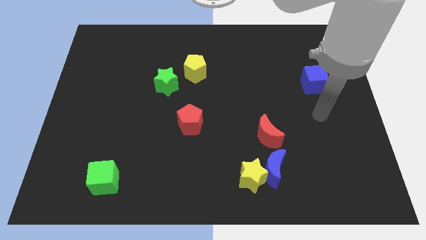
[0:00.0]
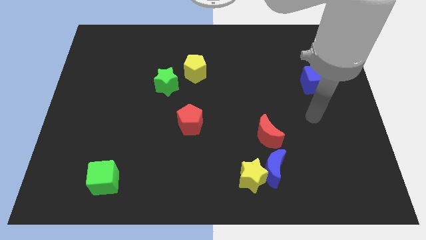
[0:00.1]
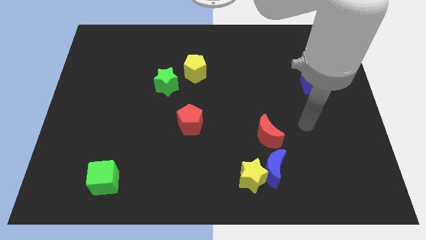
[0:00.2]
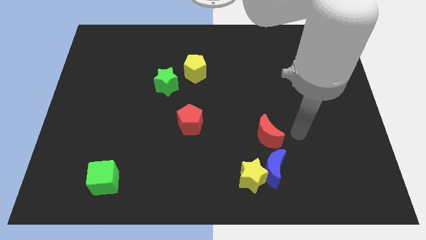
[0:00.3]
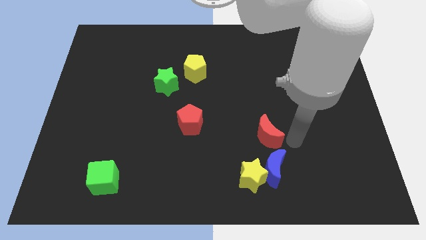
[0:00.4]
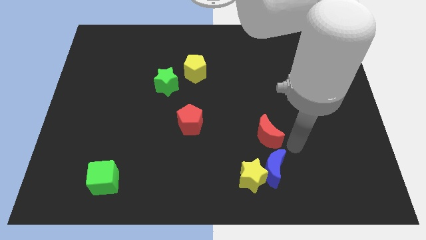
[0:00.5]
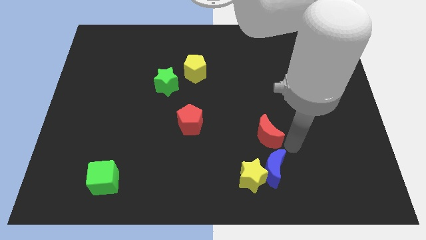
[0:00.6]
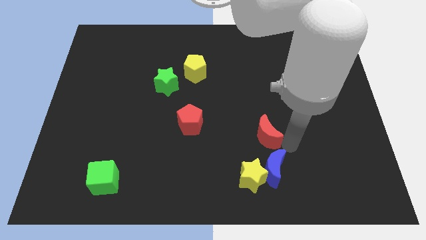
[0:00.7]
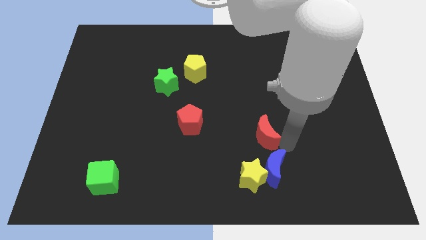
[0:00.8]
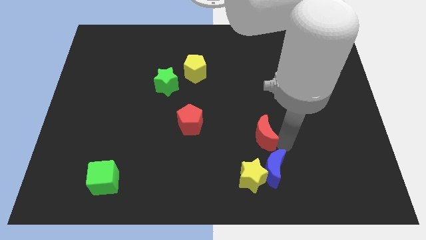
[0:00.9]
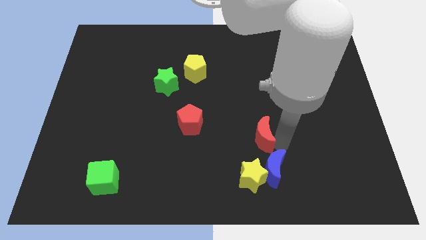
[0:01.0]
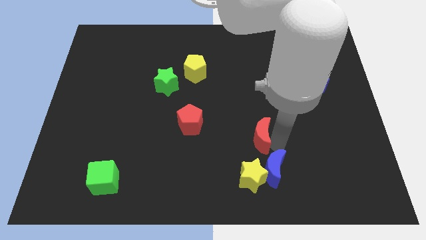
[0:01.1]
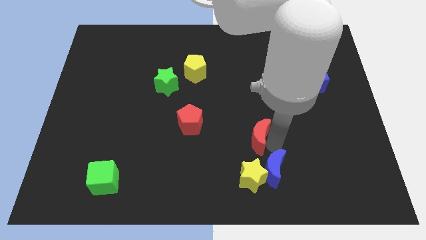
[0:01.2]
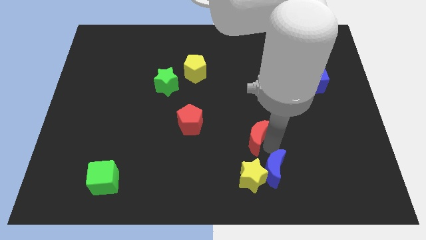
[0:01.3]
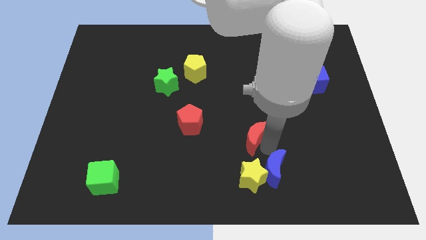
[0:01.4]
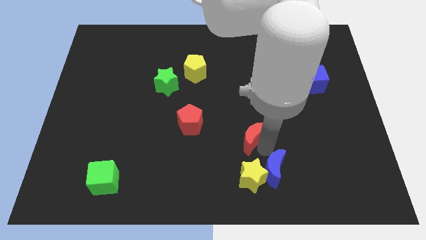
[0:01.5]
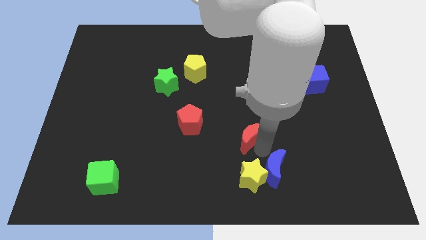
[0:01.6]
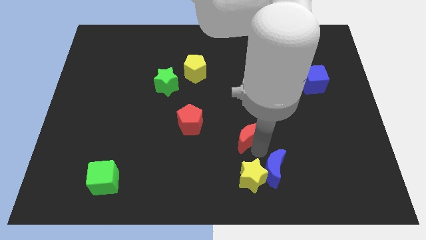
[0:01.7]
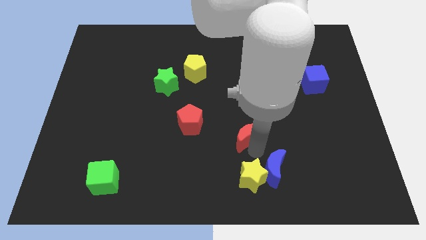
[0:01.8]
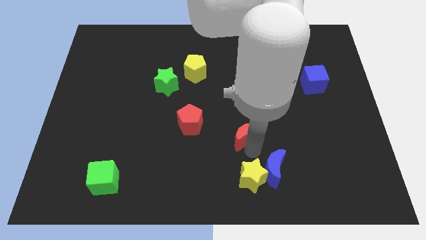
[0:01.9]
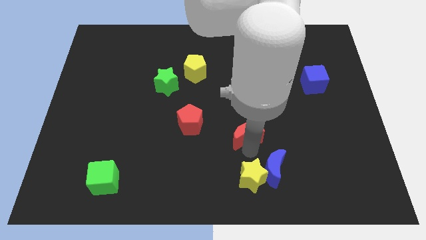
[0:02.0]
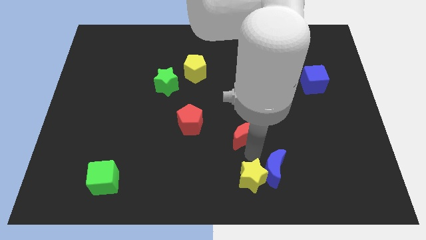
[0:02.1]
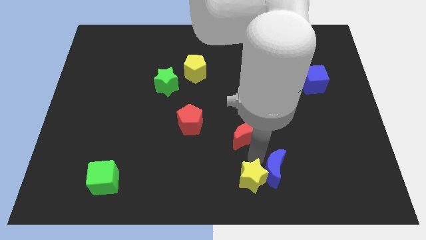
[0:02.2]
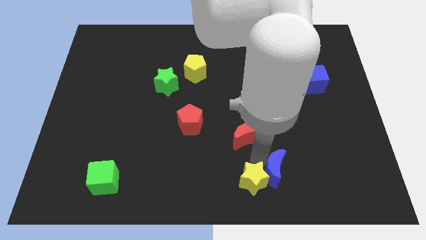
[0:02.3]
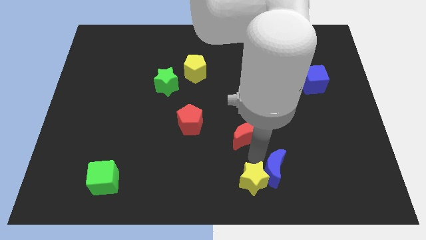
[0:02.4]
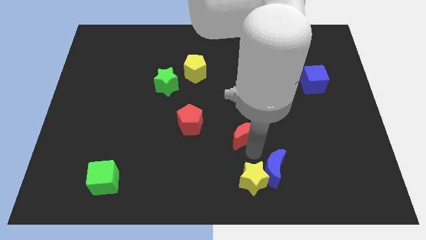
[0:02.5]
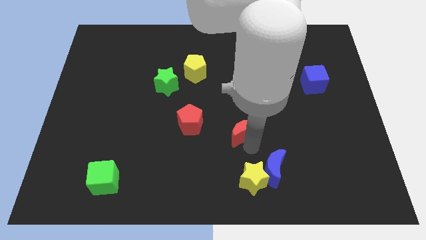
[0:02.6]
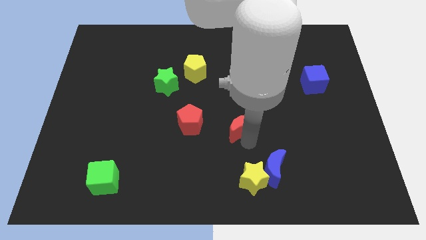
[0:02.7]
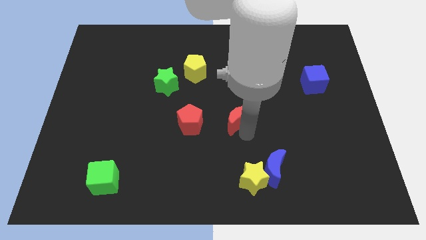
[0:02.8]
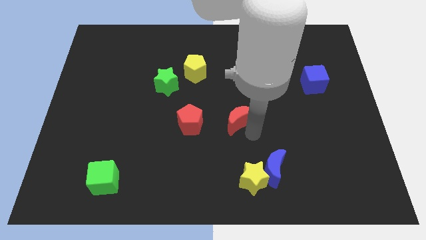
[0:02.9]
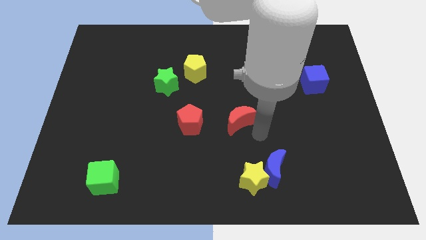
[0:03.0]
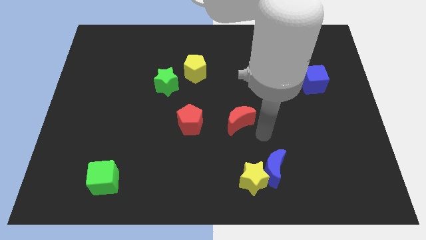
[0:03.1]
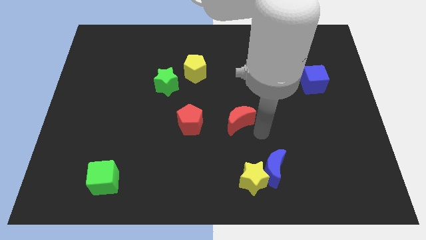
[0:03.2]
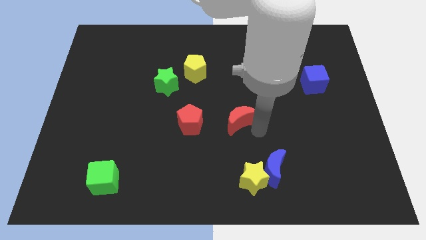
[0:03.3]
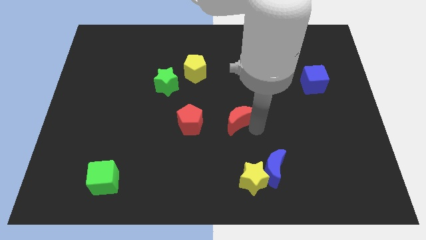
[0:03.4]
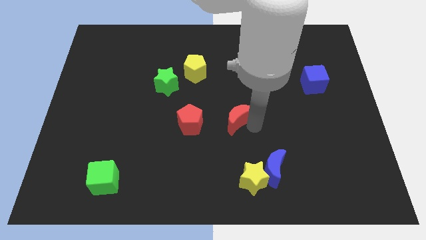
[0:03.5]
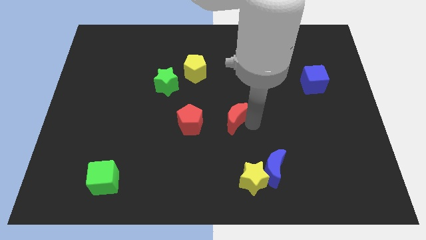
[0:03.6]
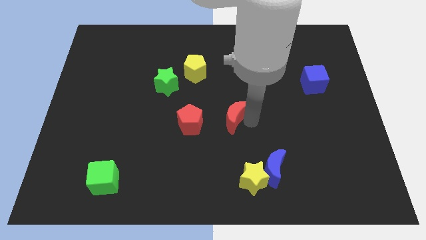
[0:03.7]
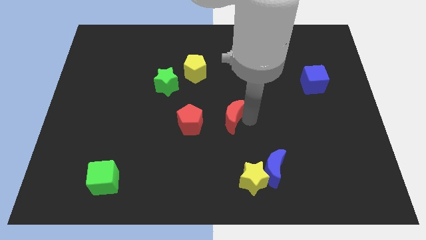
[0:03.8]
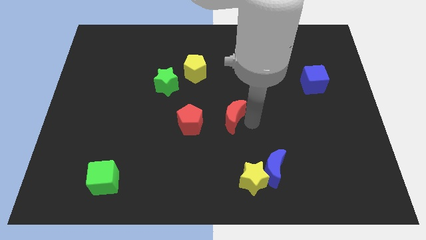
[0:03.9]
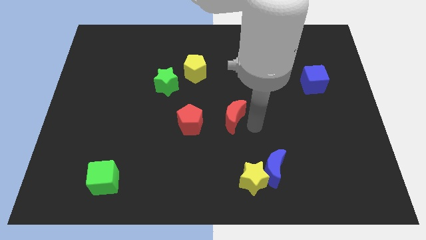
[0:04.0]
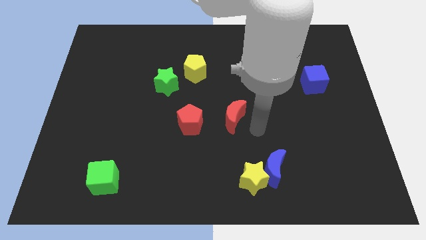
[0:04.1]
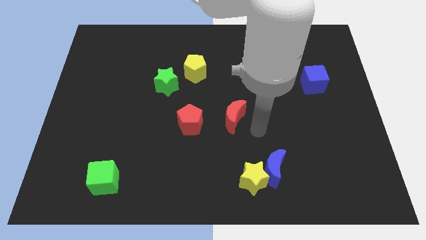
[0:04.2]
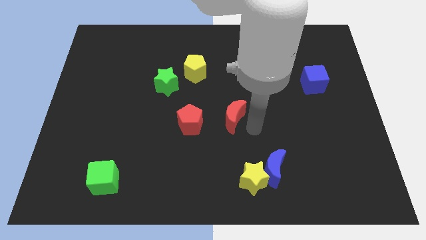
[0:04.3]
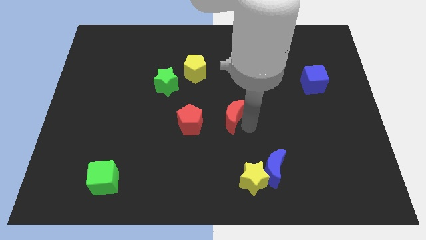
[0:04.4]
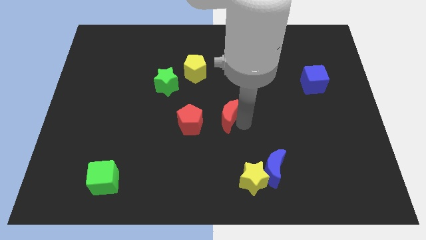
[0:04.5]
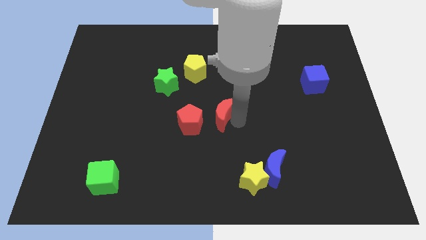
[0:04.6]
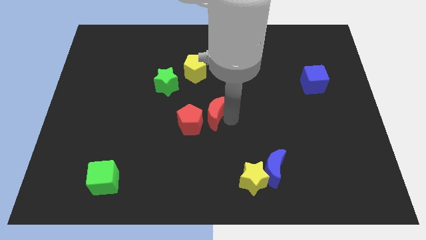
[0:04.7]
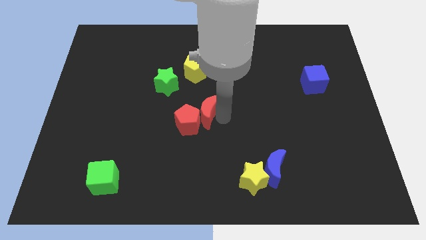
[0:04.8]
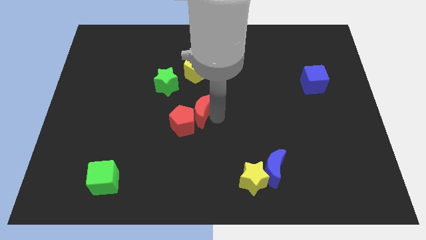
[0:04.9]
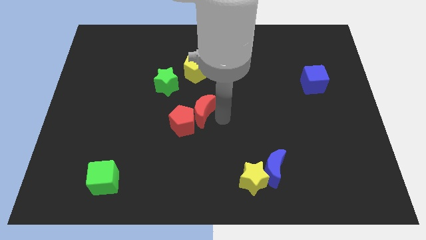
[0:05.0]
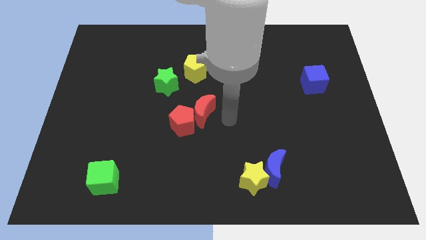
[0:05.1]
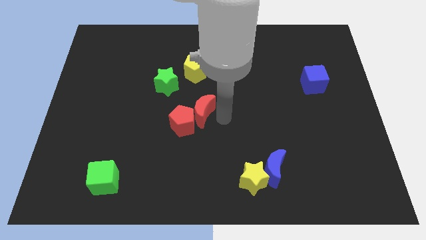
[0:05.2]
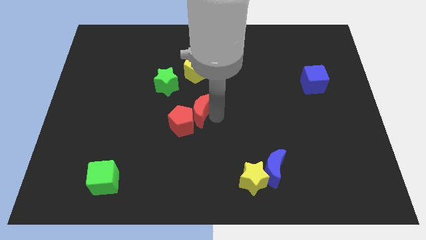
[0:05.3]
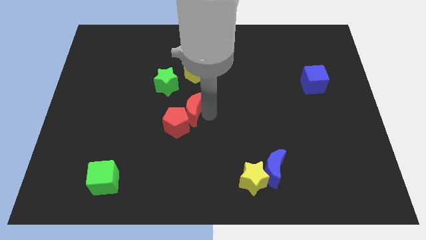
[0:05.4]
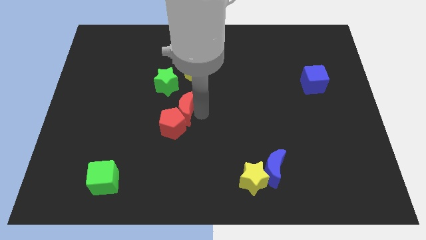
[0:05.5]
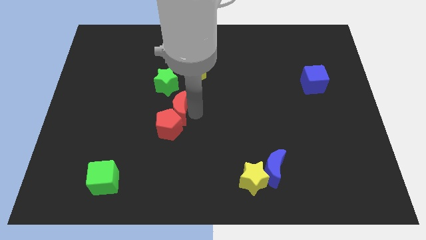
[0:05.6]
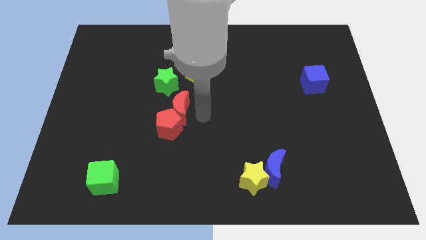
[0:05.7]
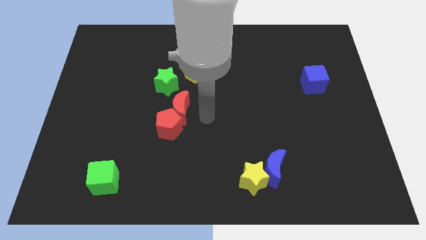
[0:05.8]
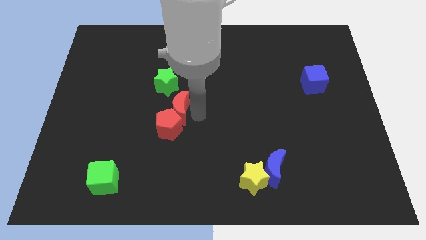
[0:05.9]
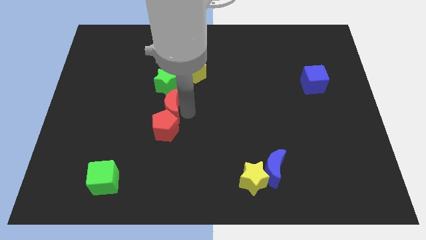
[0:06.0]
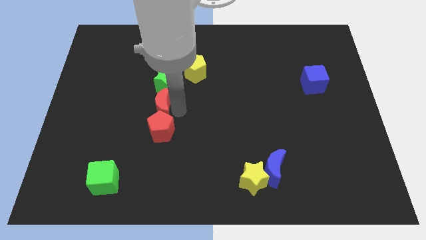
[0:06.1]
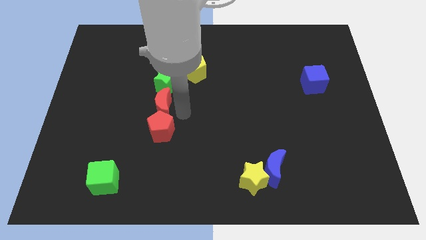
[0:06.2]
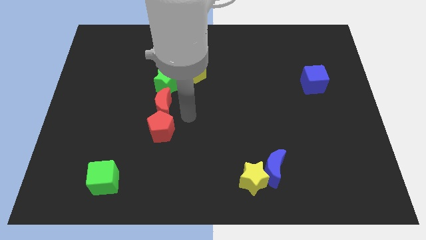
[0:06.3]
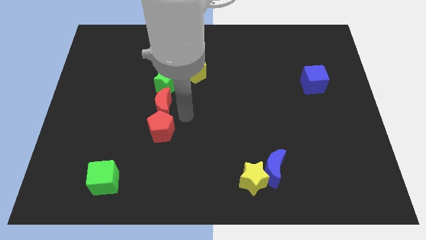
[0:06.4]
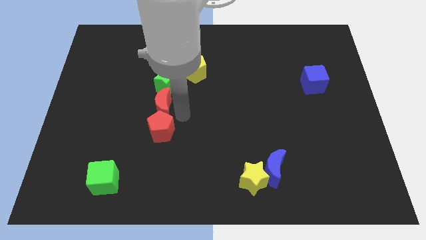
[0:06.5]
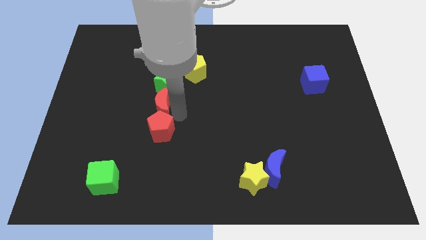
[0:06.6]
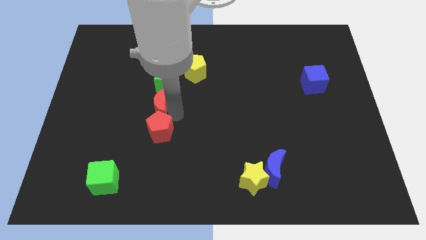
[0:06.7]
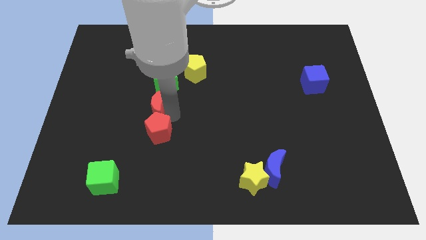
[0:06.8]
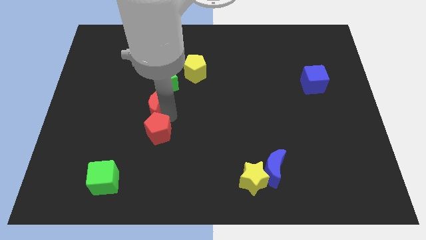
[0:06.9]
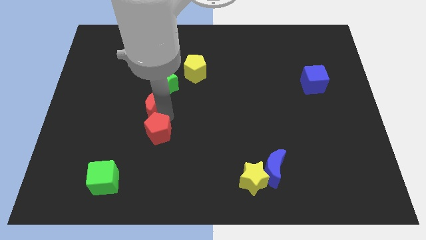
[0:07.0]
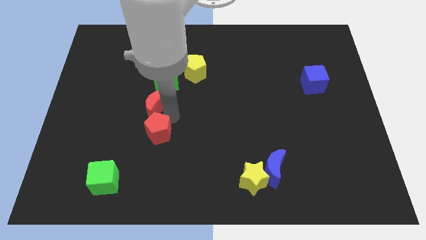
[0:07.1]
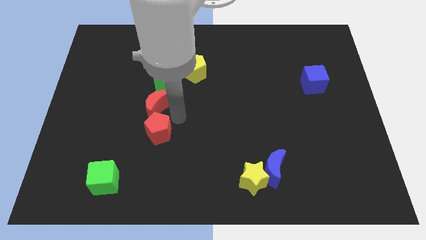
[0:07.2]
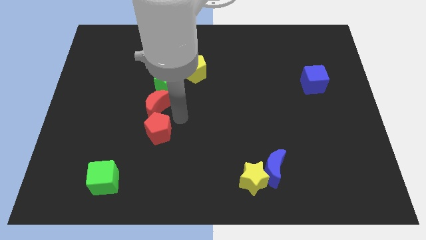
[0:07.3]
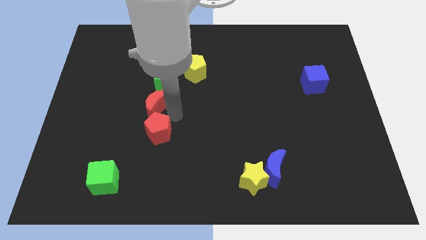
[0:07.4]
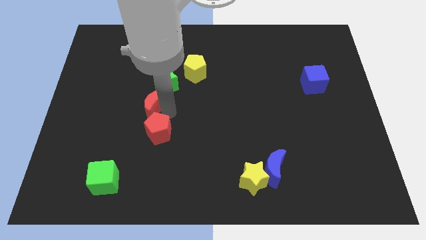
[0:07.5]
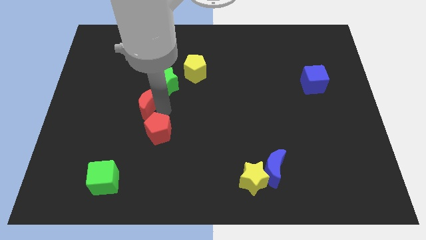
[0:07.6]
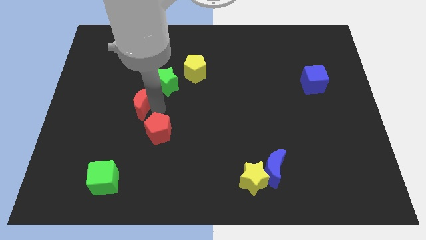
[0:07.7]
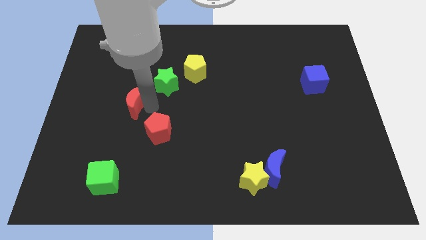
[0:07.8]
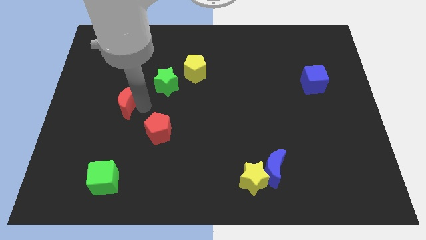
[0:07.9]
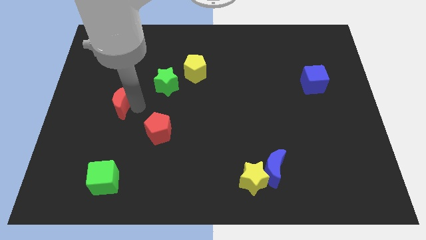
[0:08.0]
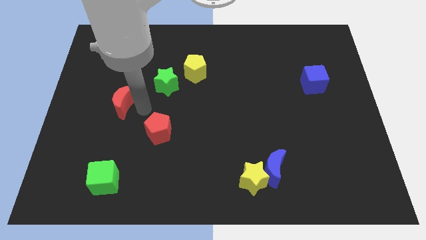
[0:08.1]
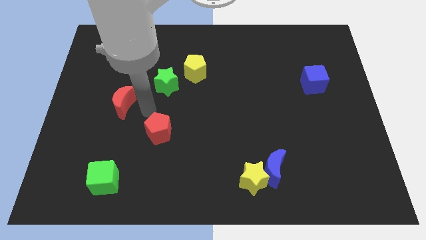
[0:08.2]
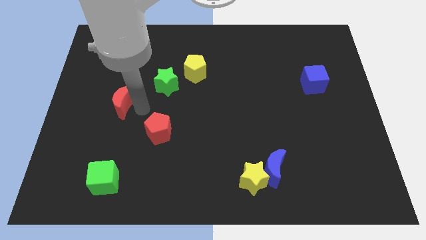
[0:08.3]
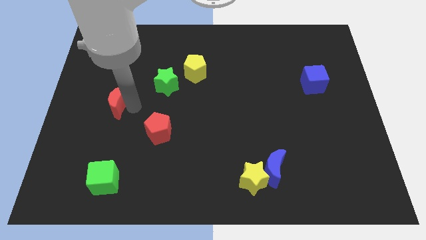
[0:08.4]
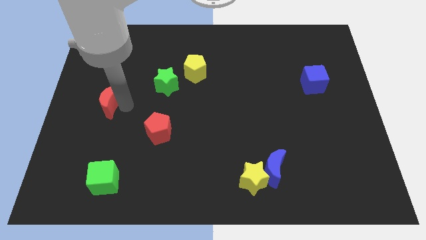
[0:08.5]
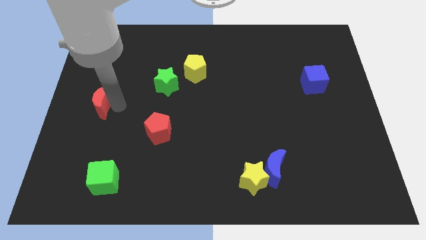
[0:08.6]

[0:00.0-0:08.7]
put the red moon to the left side of the board
